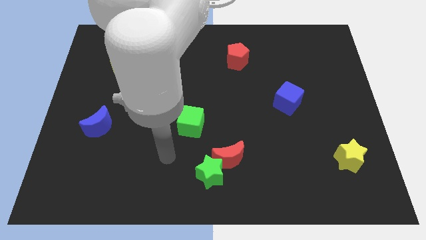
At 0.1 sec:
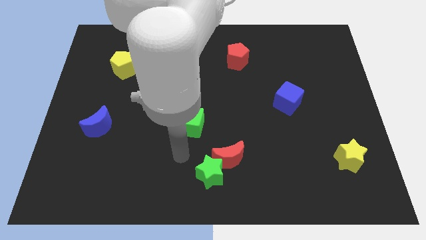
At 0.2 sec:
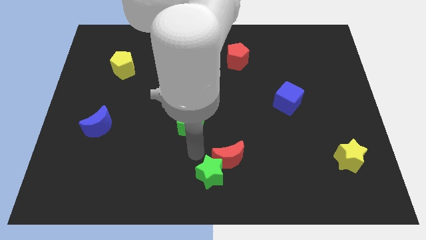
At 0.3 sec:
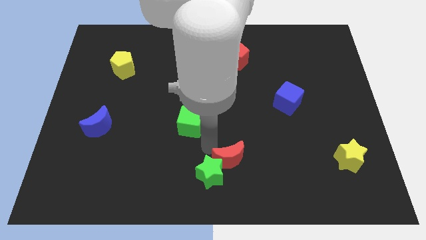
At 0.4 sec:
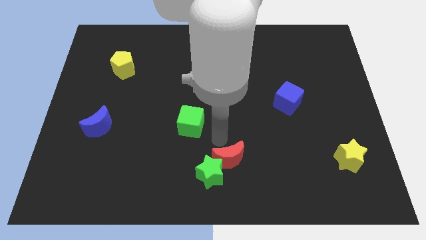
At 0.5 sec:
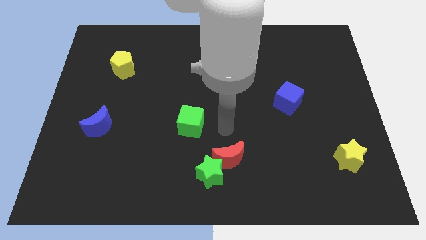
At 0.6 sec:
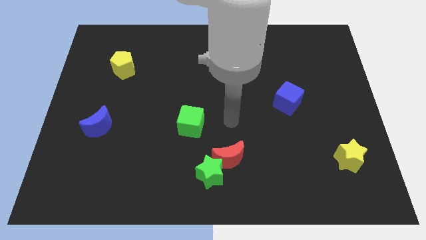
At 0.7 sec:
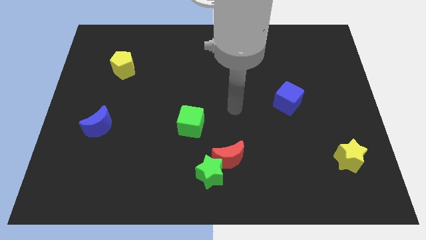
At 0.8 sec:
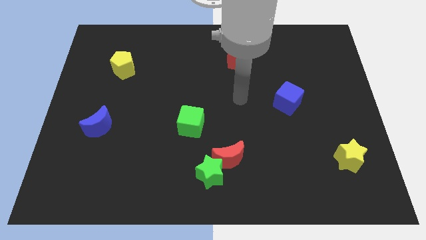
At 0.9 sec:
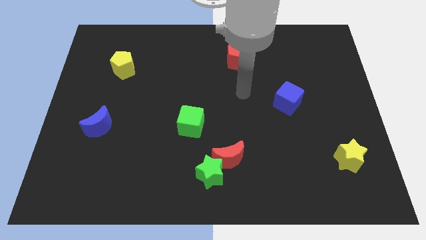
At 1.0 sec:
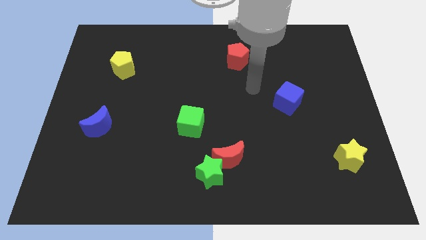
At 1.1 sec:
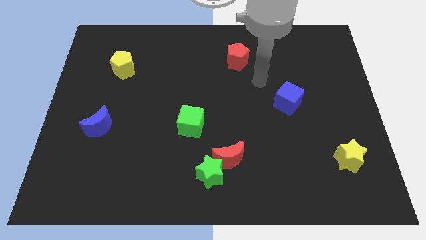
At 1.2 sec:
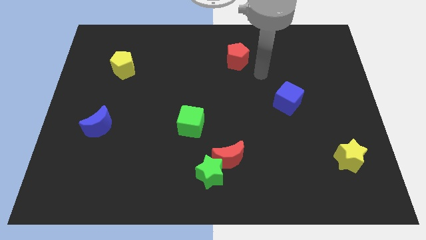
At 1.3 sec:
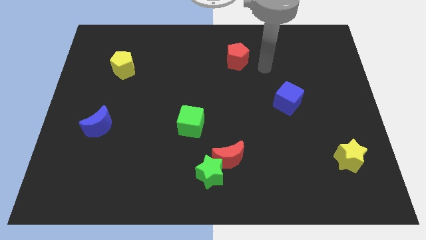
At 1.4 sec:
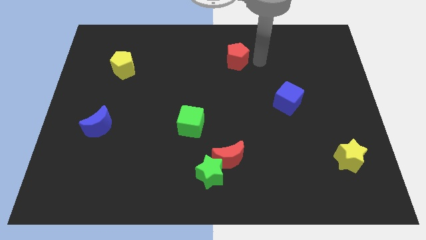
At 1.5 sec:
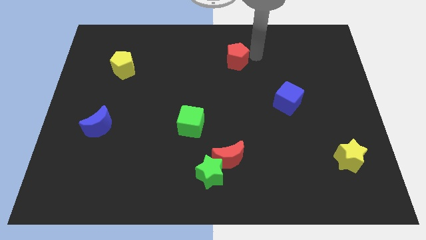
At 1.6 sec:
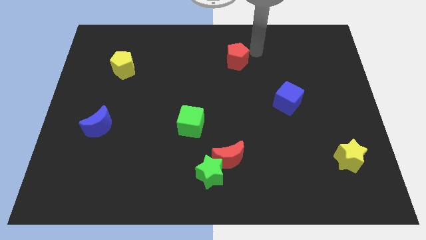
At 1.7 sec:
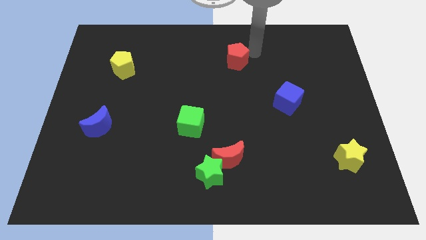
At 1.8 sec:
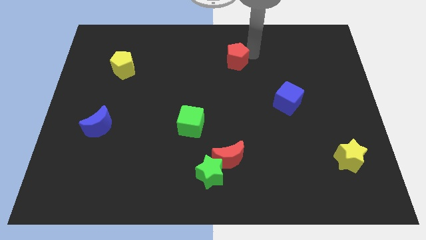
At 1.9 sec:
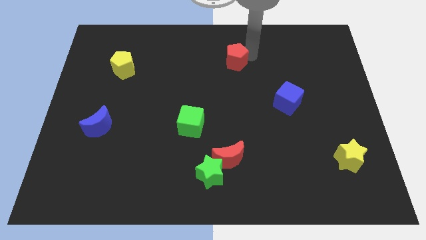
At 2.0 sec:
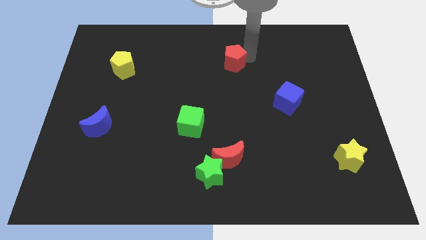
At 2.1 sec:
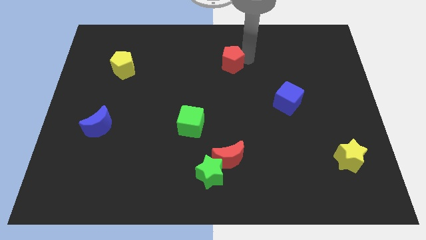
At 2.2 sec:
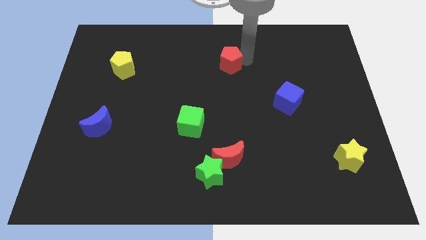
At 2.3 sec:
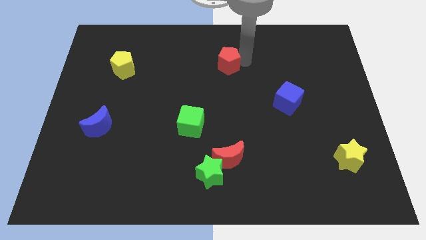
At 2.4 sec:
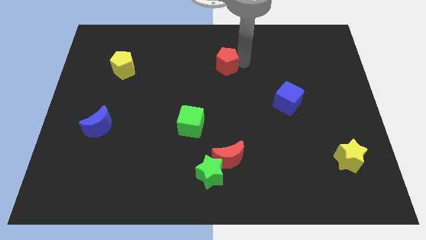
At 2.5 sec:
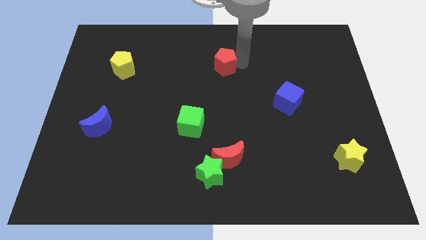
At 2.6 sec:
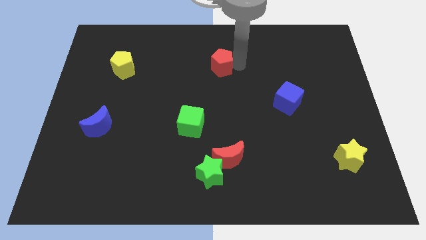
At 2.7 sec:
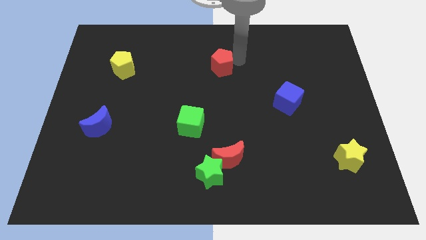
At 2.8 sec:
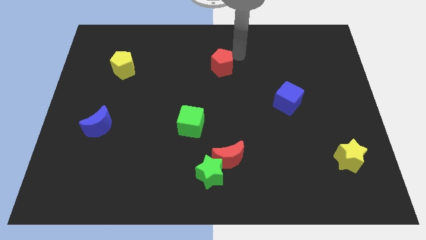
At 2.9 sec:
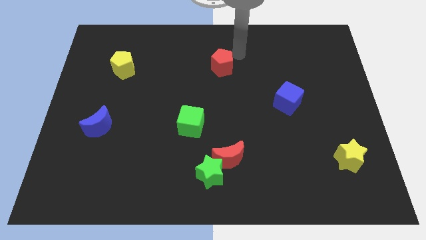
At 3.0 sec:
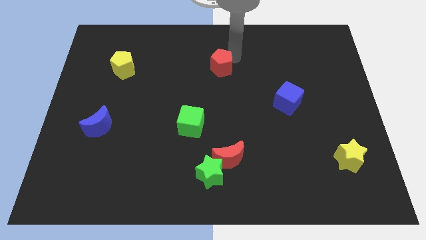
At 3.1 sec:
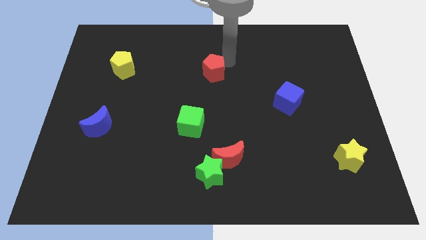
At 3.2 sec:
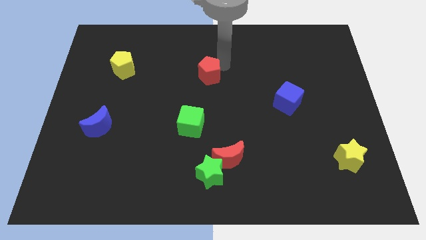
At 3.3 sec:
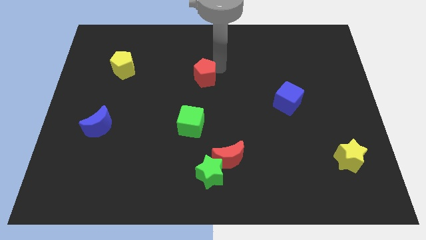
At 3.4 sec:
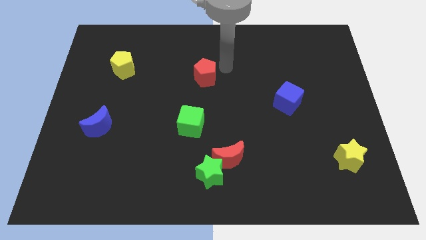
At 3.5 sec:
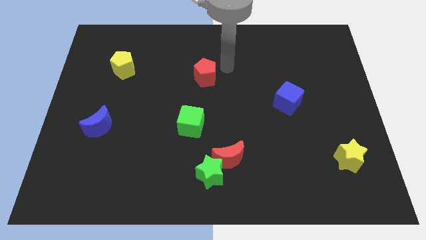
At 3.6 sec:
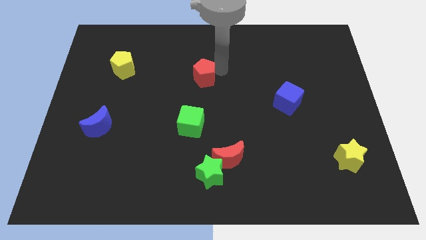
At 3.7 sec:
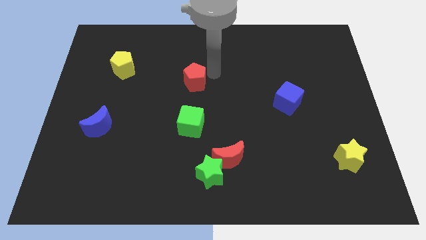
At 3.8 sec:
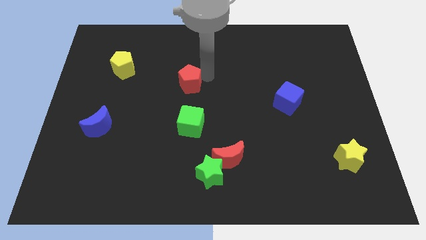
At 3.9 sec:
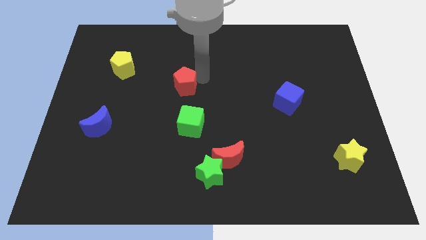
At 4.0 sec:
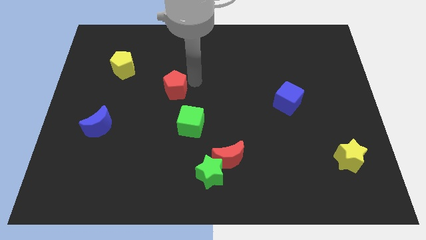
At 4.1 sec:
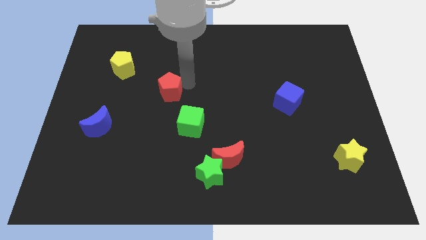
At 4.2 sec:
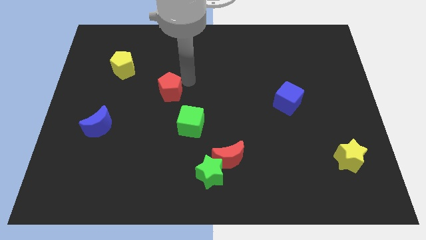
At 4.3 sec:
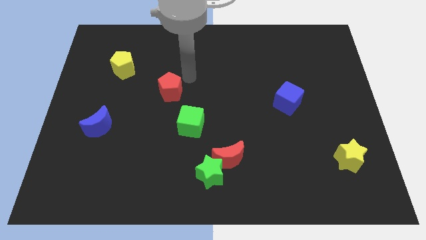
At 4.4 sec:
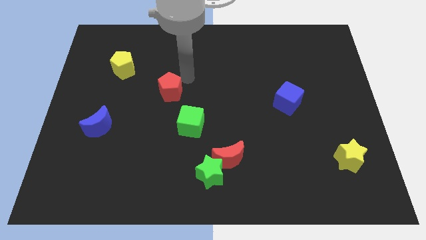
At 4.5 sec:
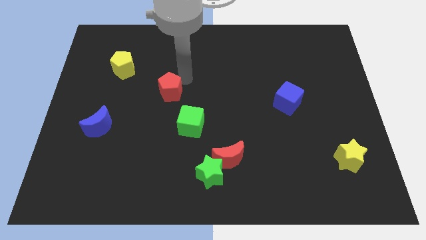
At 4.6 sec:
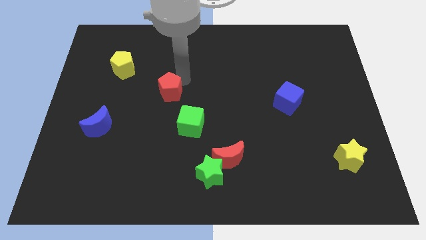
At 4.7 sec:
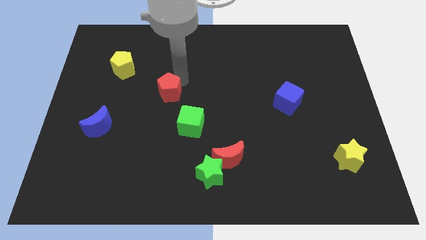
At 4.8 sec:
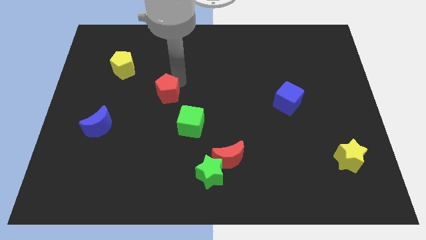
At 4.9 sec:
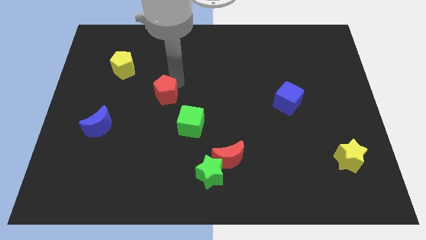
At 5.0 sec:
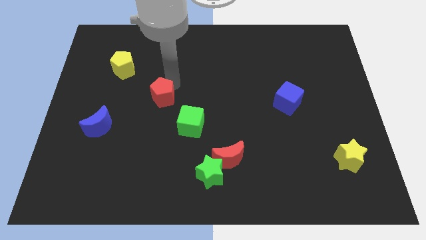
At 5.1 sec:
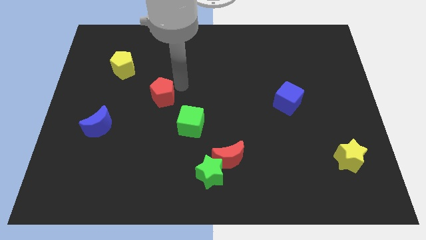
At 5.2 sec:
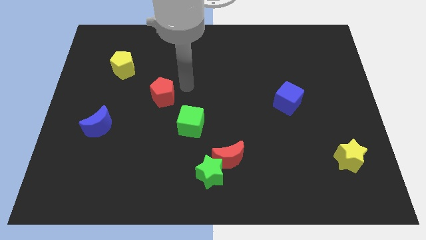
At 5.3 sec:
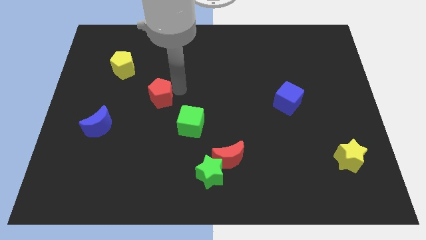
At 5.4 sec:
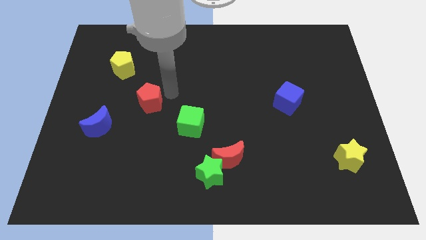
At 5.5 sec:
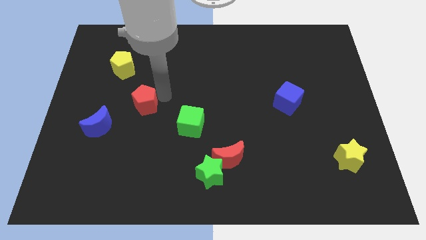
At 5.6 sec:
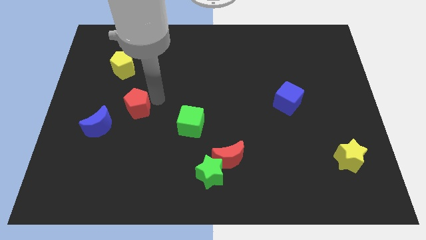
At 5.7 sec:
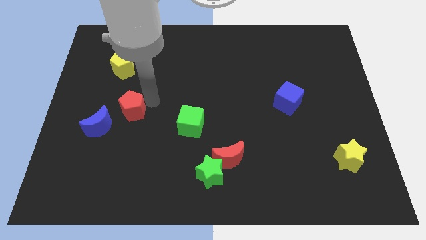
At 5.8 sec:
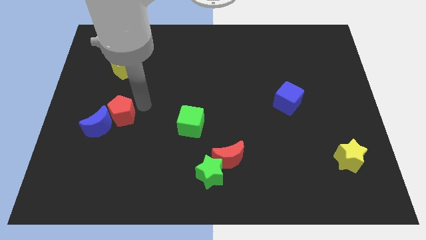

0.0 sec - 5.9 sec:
push the red pentagon to the blue moon

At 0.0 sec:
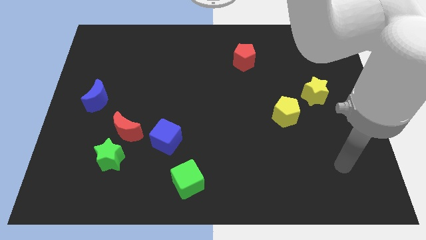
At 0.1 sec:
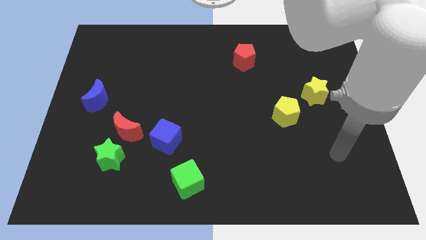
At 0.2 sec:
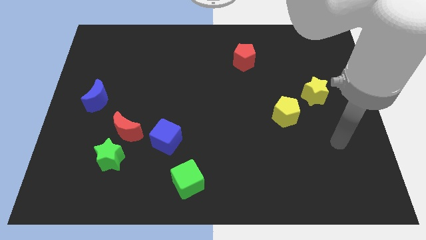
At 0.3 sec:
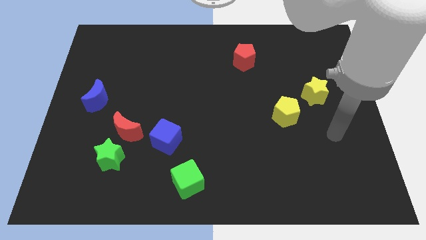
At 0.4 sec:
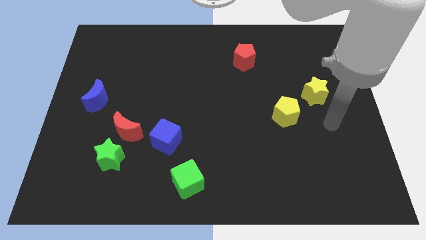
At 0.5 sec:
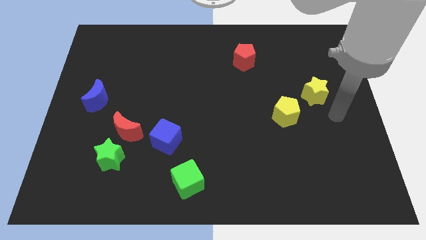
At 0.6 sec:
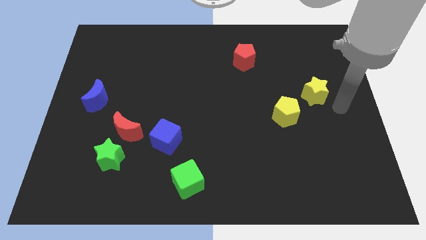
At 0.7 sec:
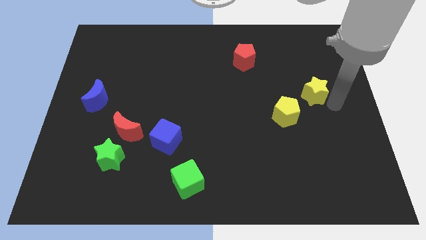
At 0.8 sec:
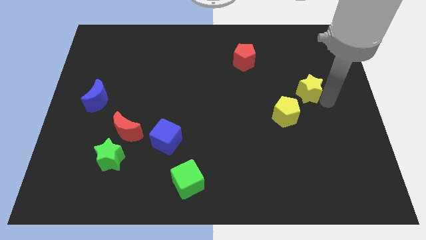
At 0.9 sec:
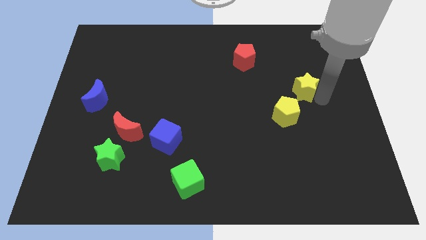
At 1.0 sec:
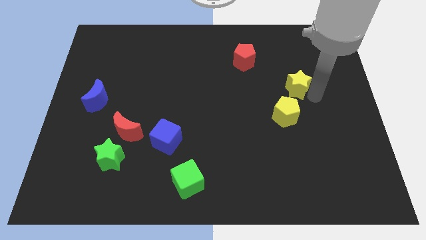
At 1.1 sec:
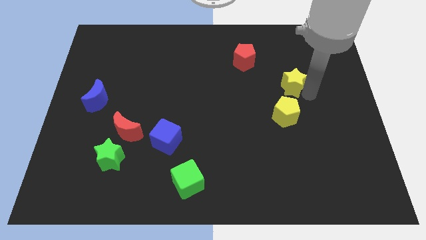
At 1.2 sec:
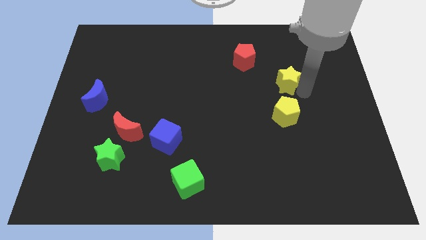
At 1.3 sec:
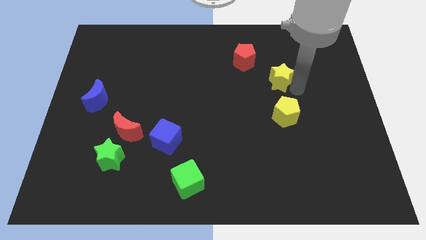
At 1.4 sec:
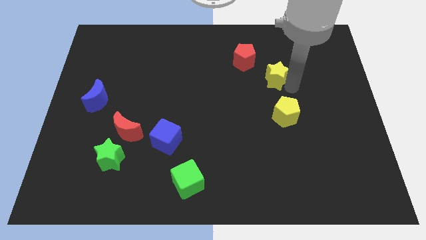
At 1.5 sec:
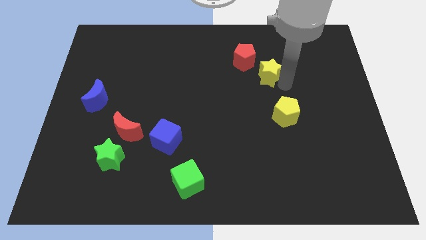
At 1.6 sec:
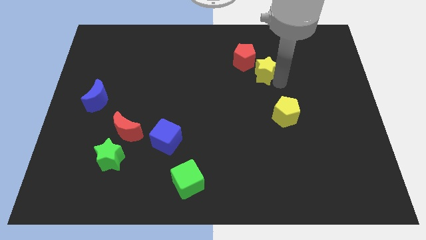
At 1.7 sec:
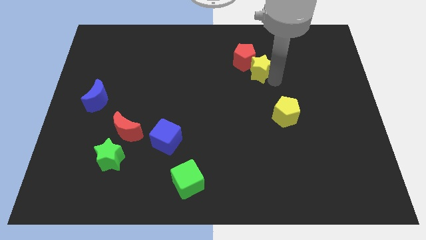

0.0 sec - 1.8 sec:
slide the yellow star towards the red pentagon
